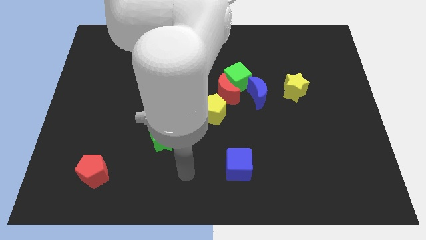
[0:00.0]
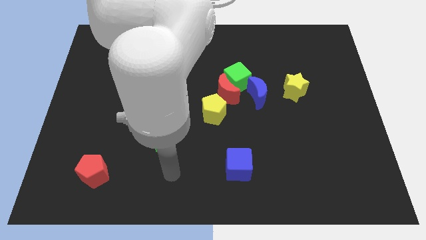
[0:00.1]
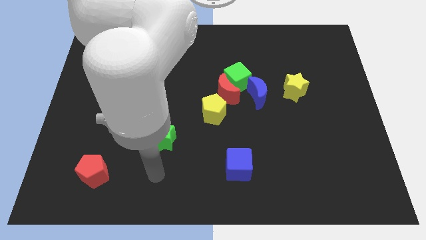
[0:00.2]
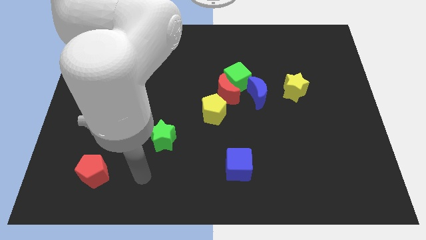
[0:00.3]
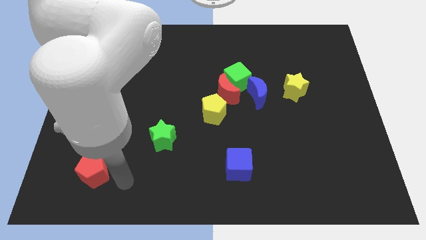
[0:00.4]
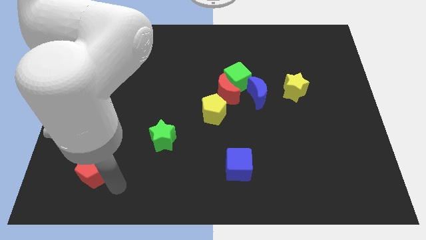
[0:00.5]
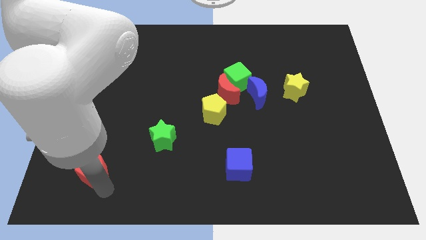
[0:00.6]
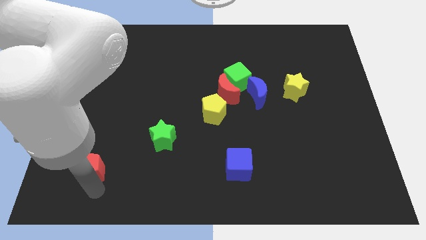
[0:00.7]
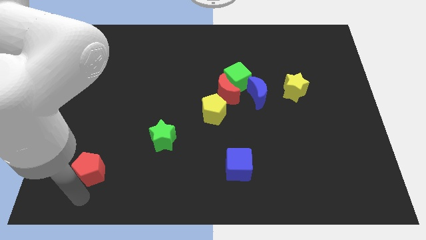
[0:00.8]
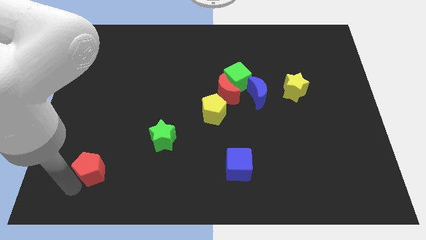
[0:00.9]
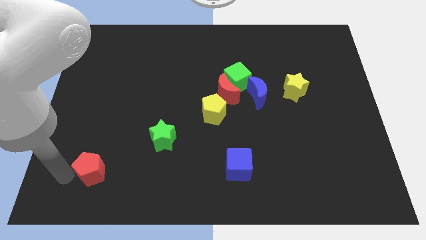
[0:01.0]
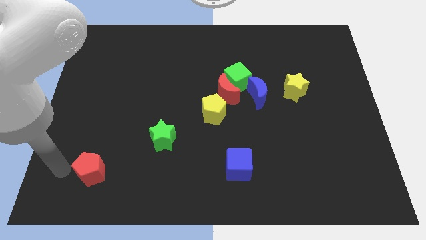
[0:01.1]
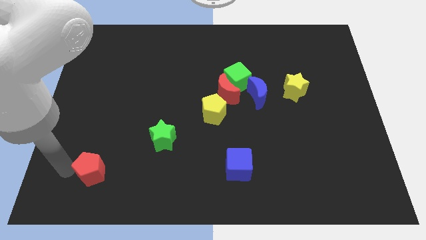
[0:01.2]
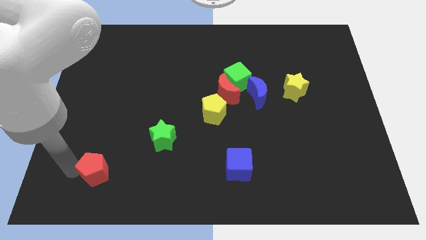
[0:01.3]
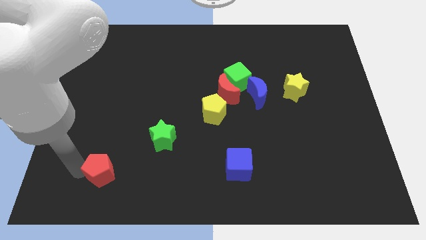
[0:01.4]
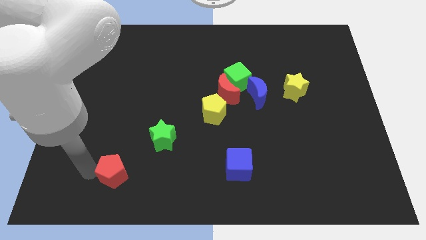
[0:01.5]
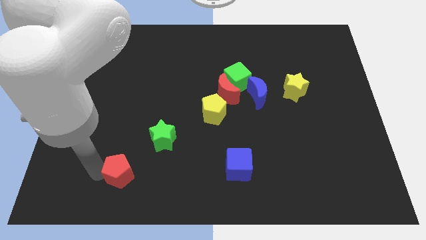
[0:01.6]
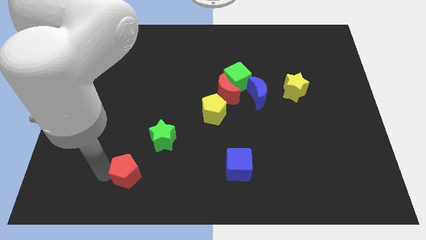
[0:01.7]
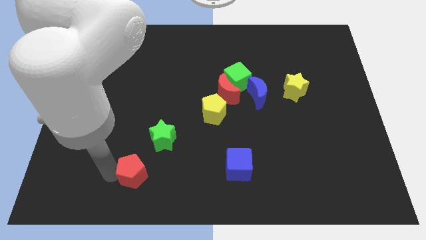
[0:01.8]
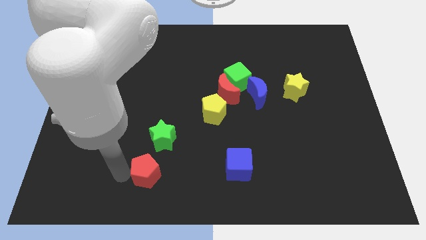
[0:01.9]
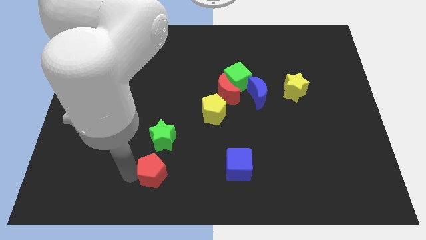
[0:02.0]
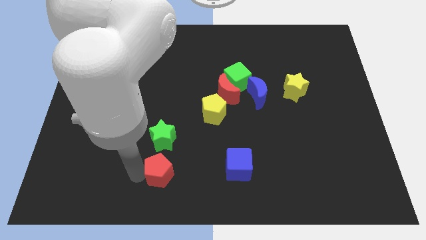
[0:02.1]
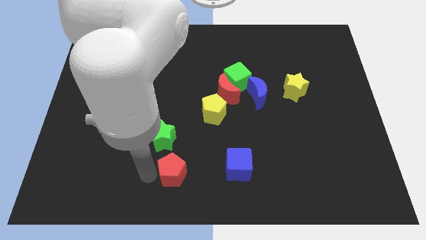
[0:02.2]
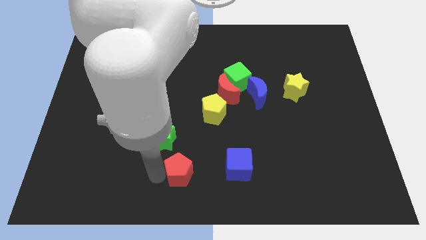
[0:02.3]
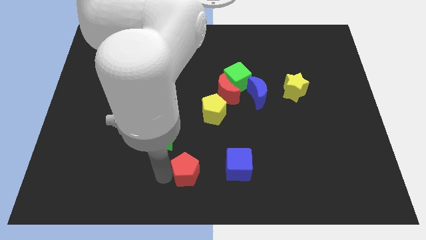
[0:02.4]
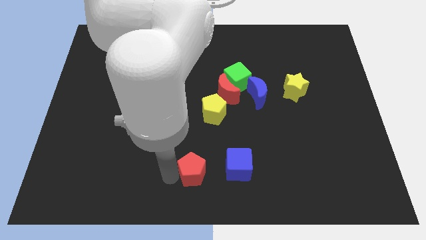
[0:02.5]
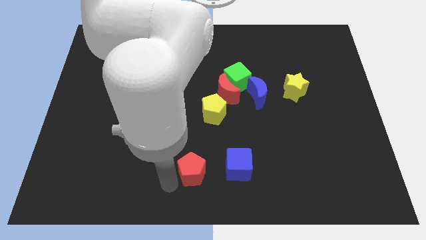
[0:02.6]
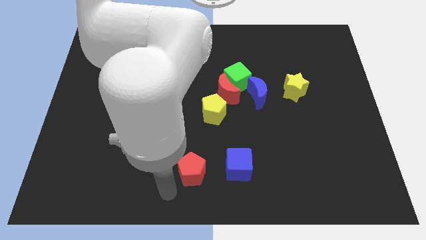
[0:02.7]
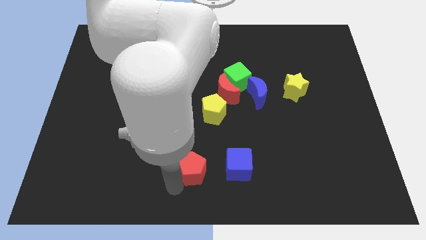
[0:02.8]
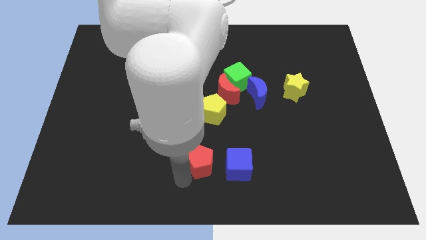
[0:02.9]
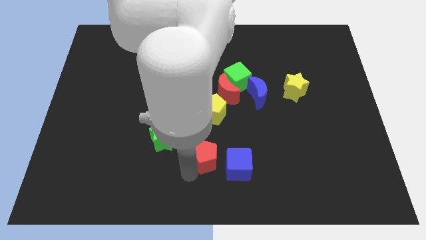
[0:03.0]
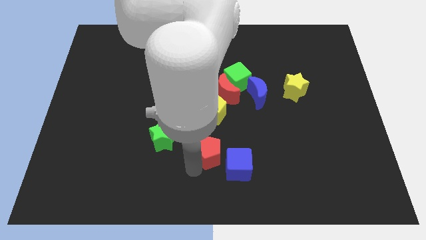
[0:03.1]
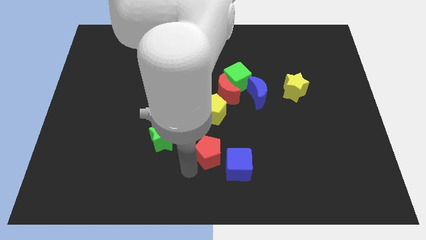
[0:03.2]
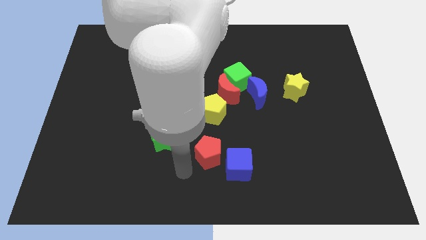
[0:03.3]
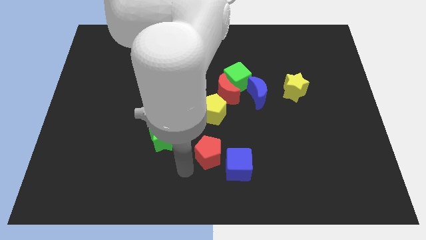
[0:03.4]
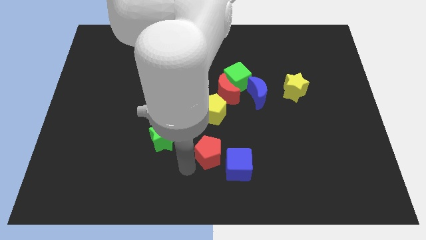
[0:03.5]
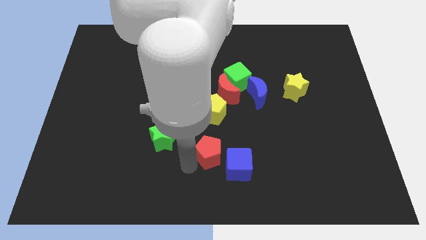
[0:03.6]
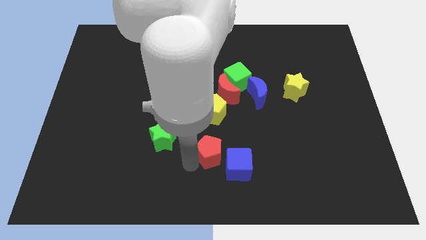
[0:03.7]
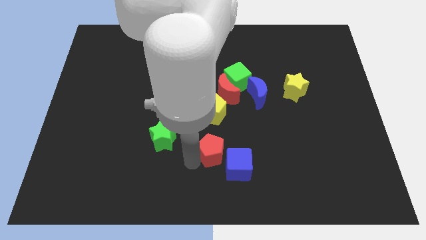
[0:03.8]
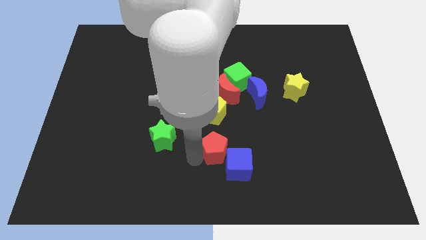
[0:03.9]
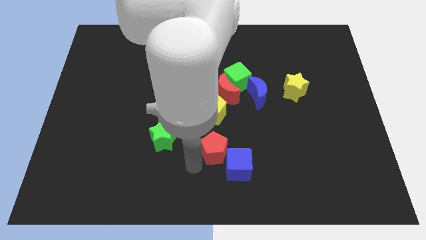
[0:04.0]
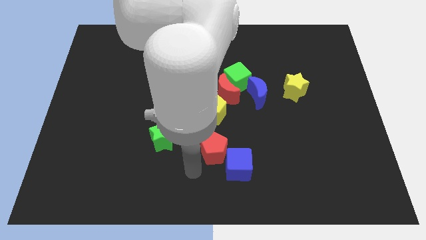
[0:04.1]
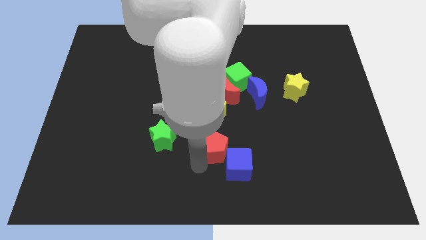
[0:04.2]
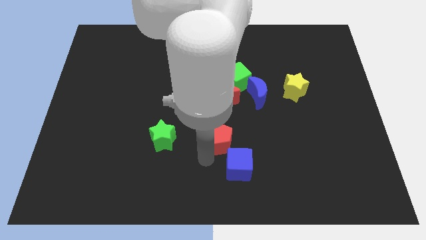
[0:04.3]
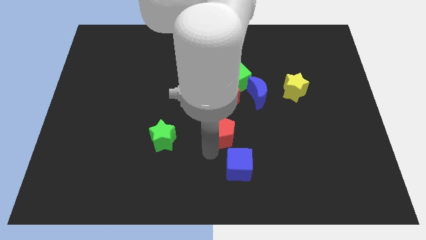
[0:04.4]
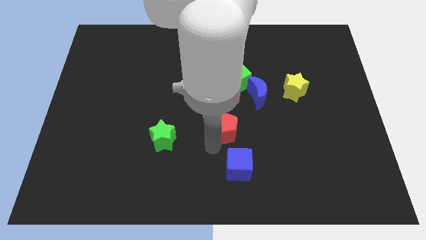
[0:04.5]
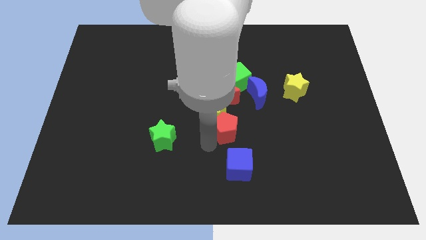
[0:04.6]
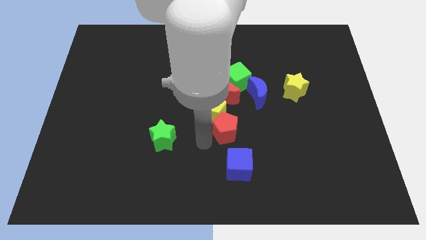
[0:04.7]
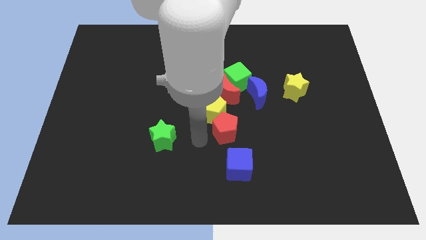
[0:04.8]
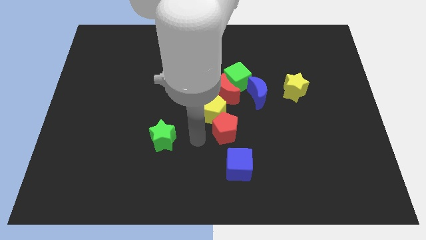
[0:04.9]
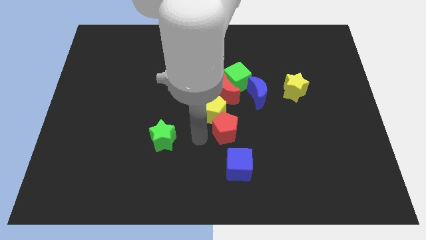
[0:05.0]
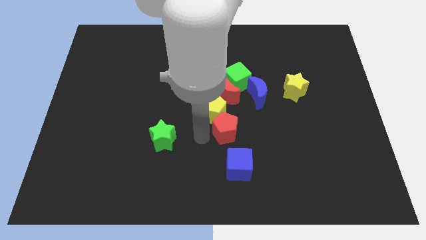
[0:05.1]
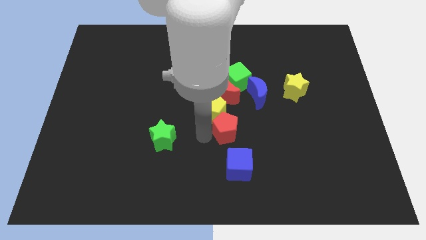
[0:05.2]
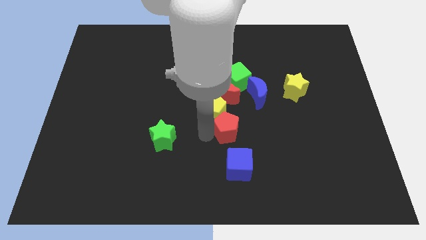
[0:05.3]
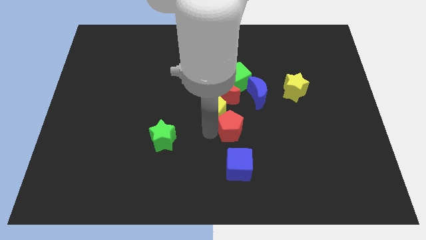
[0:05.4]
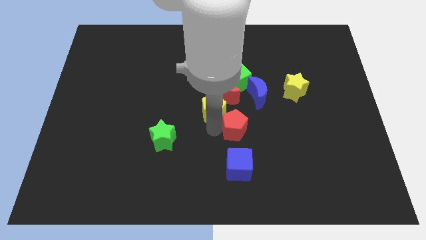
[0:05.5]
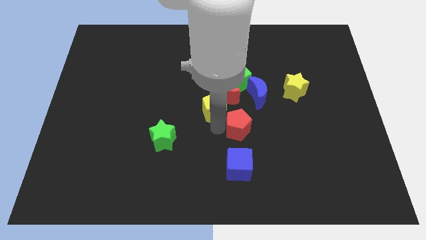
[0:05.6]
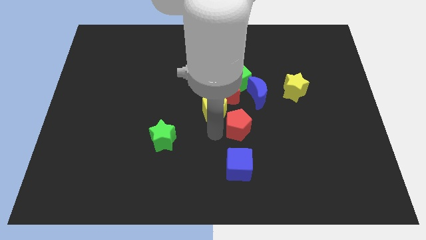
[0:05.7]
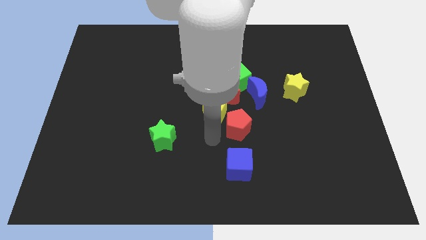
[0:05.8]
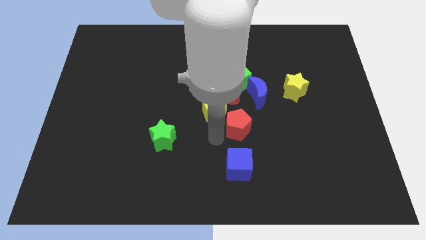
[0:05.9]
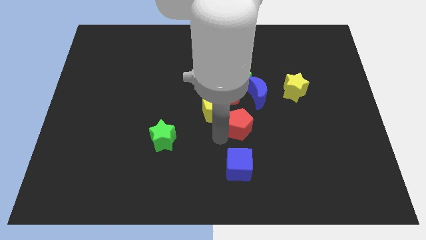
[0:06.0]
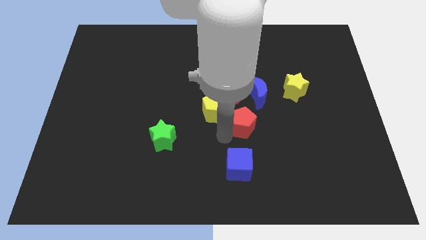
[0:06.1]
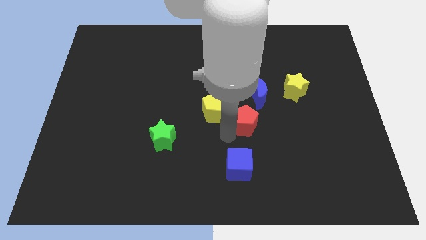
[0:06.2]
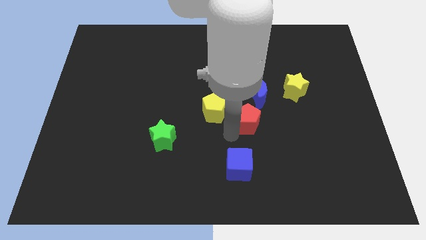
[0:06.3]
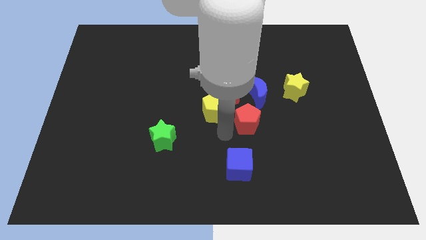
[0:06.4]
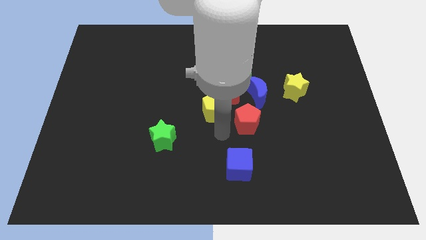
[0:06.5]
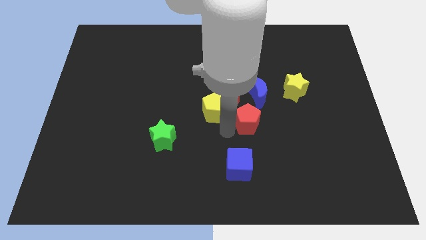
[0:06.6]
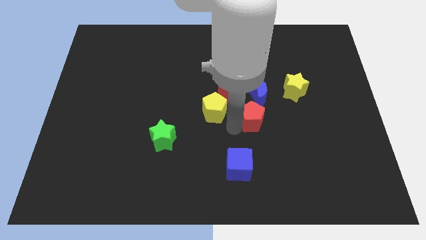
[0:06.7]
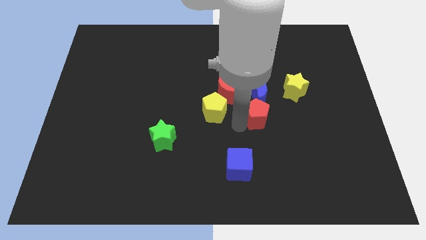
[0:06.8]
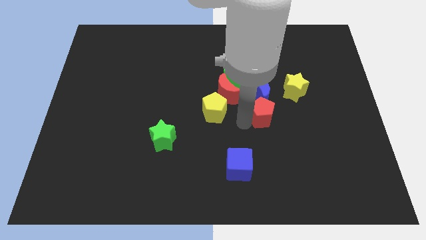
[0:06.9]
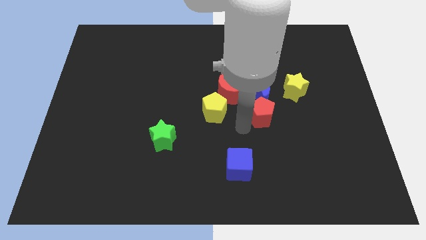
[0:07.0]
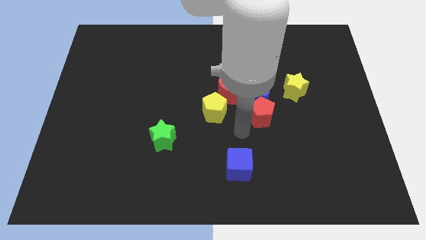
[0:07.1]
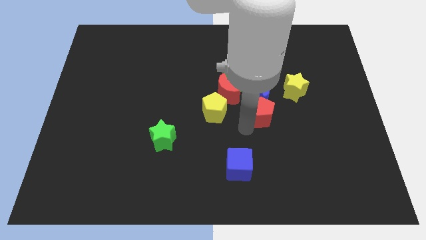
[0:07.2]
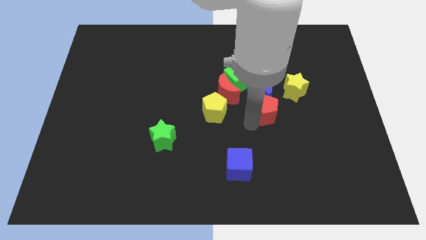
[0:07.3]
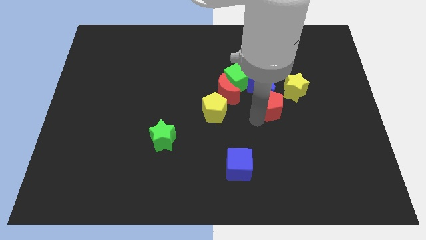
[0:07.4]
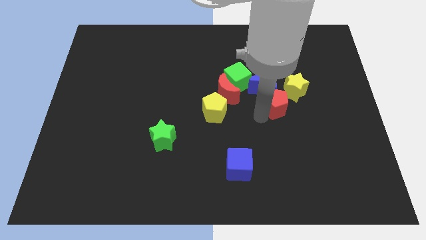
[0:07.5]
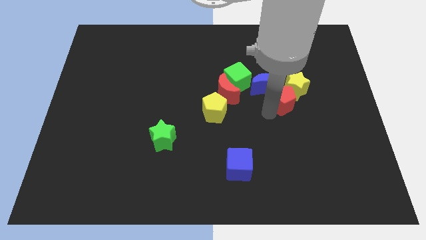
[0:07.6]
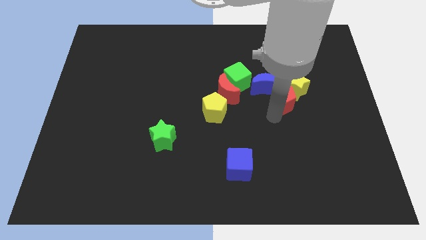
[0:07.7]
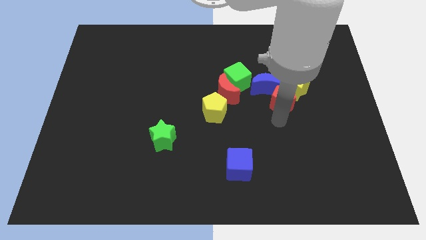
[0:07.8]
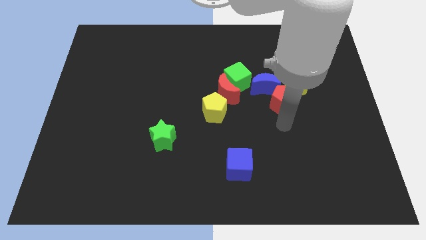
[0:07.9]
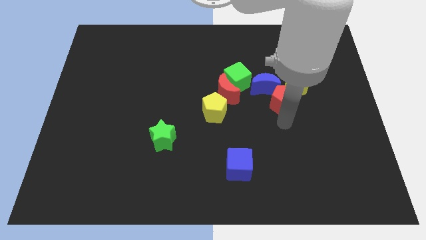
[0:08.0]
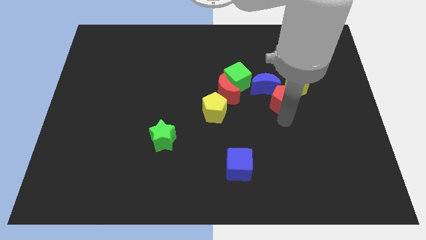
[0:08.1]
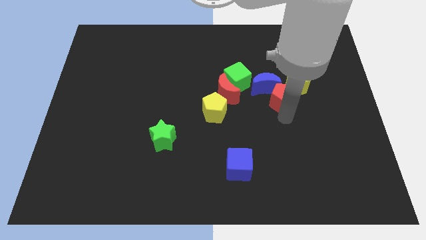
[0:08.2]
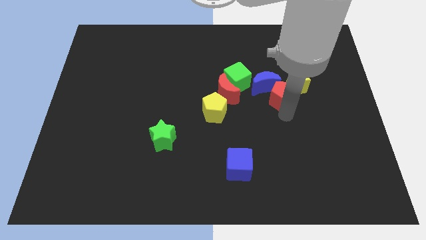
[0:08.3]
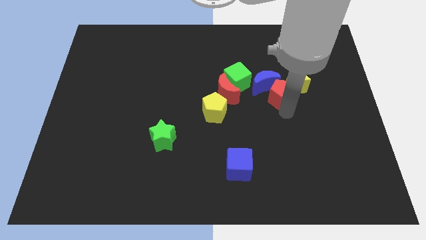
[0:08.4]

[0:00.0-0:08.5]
move the red pentagon right of the green cube
